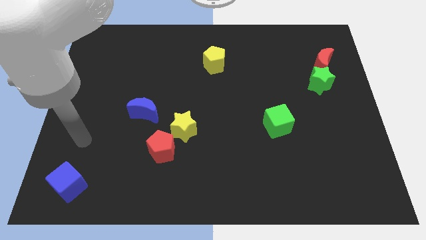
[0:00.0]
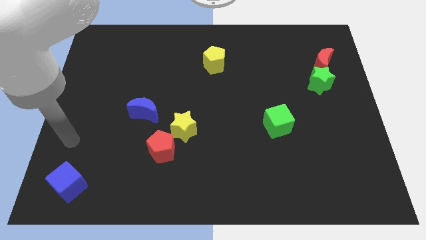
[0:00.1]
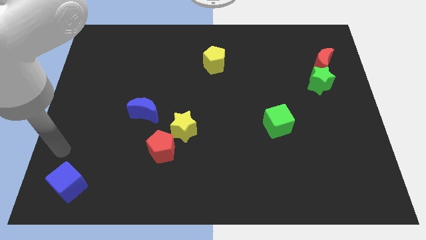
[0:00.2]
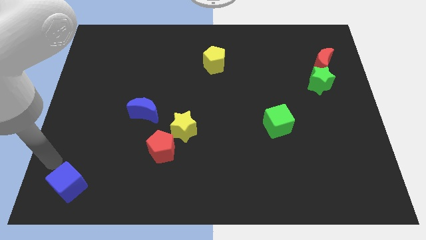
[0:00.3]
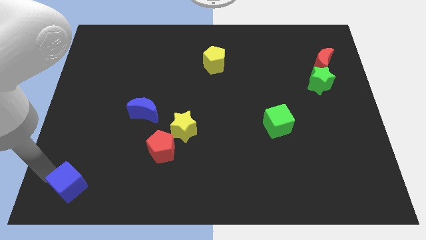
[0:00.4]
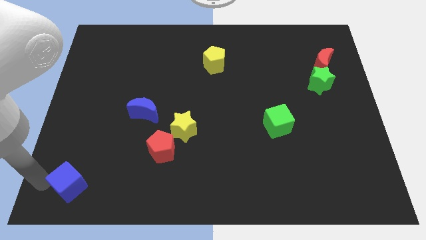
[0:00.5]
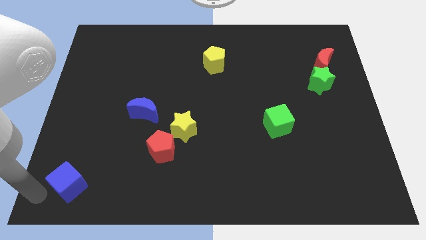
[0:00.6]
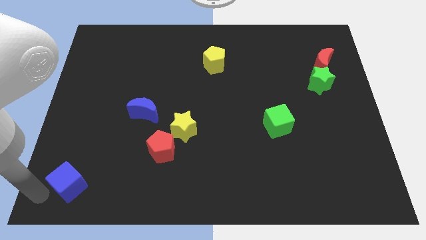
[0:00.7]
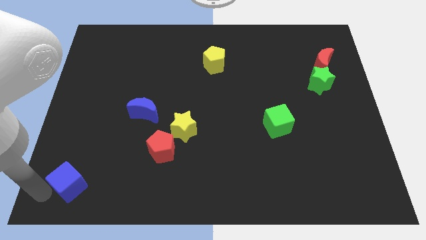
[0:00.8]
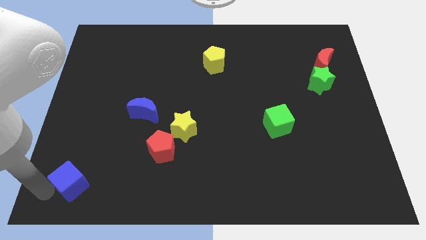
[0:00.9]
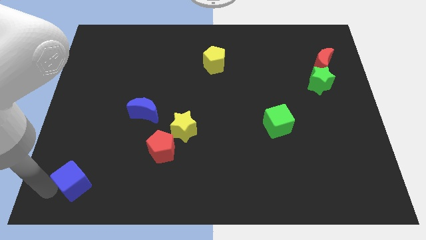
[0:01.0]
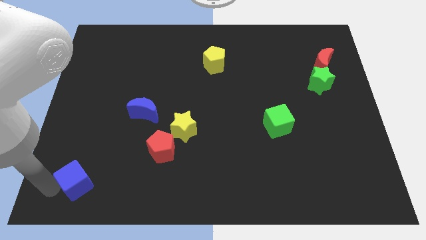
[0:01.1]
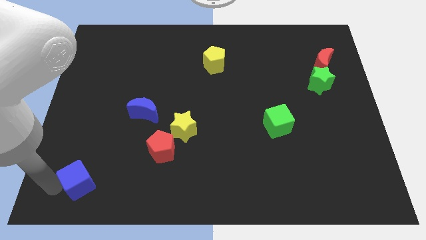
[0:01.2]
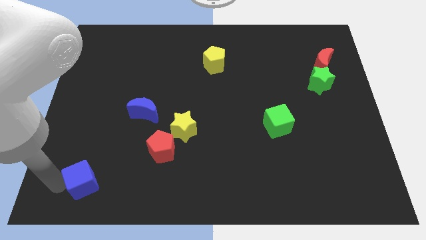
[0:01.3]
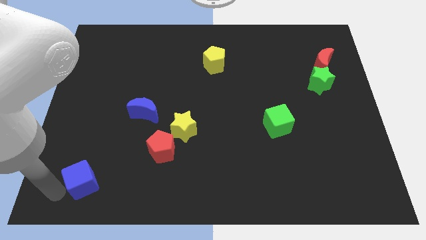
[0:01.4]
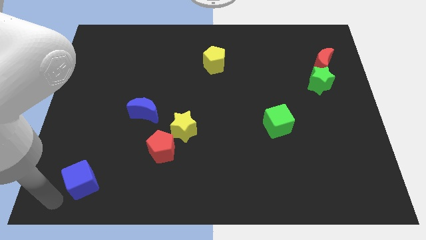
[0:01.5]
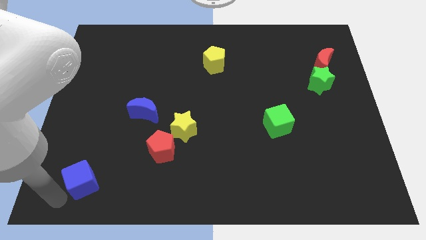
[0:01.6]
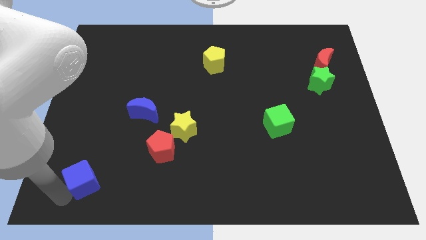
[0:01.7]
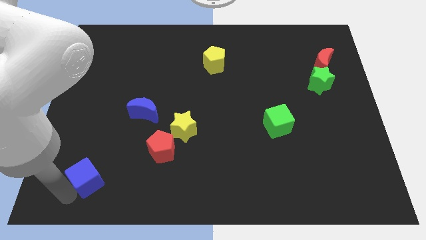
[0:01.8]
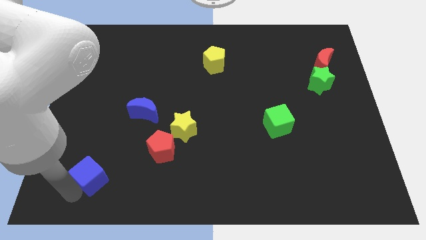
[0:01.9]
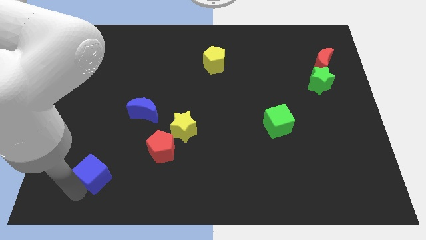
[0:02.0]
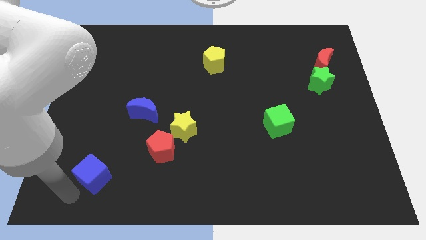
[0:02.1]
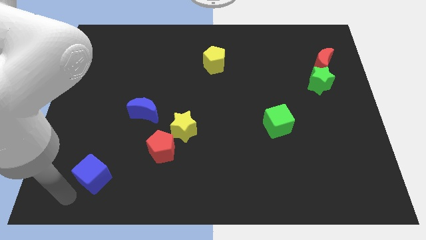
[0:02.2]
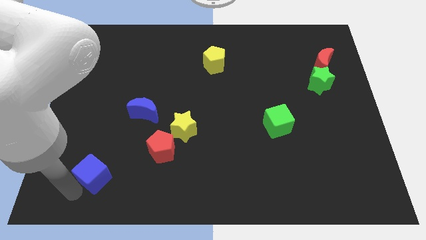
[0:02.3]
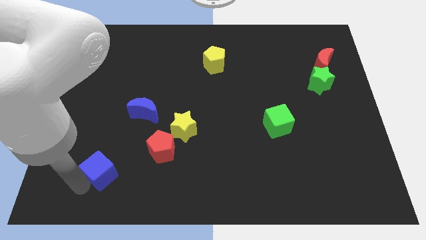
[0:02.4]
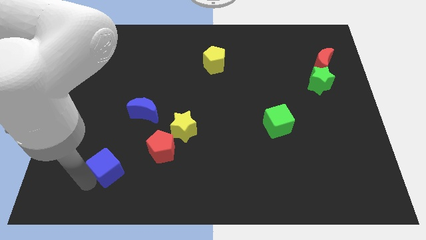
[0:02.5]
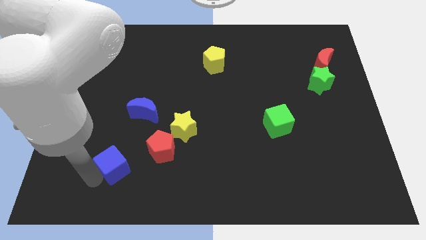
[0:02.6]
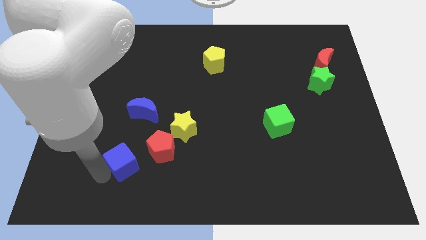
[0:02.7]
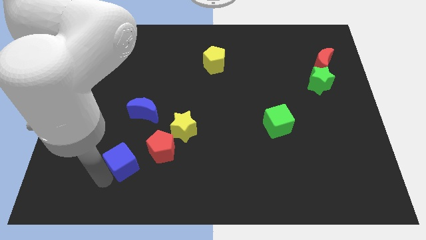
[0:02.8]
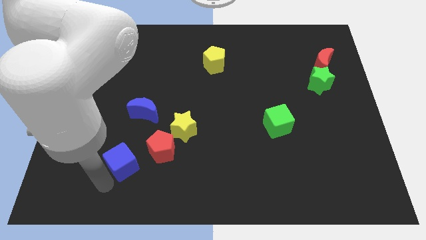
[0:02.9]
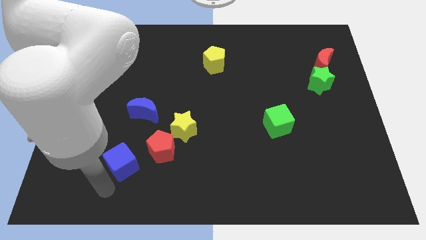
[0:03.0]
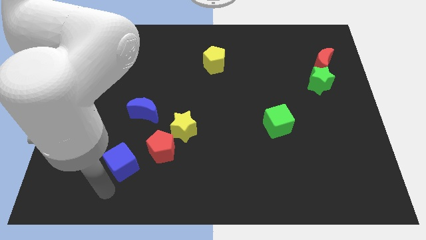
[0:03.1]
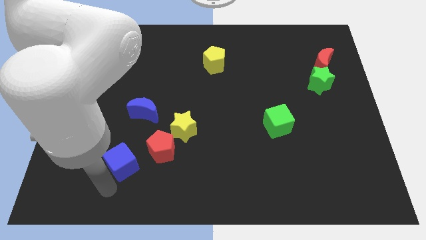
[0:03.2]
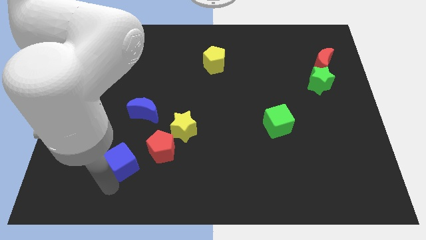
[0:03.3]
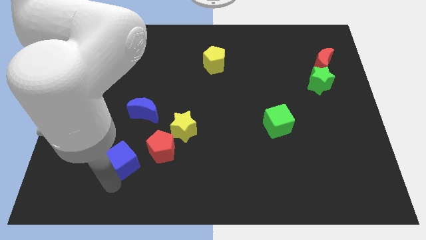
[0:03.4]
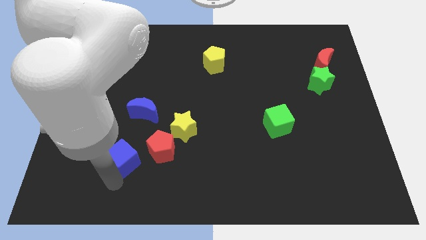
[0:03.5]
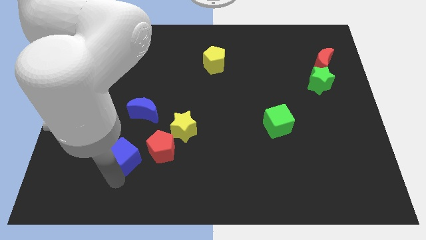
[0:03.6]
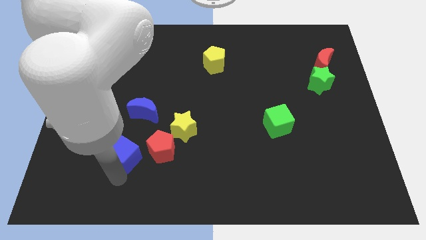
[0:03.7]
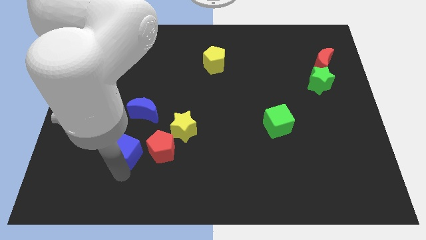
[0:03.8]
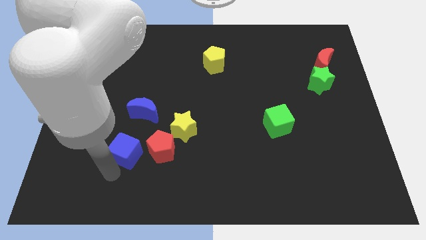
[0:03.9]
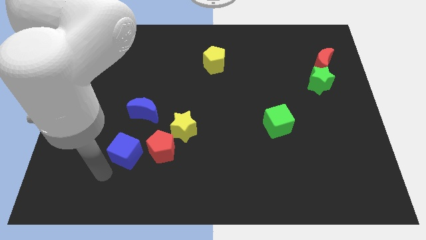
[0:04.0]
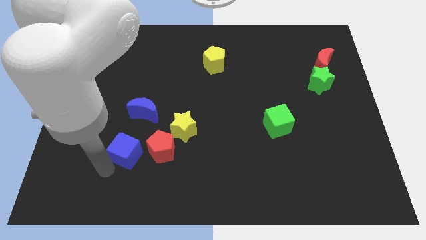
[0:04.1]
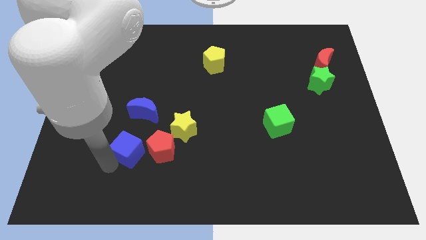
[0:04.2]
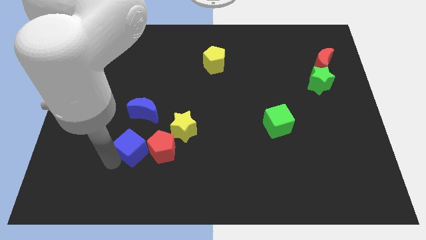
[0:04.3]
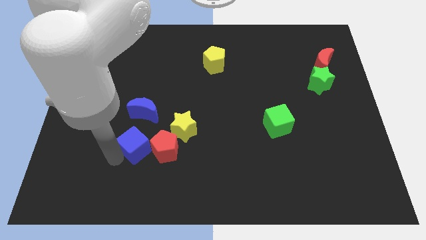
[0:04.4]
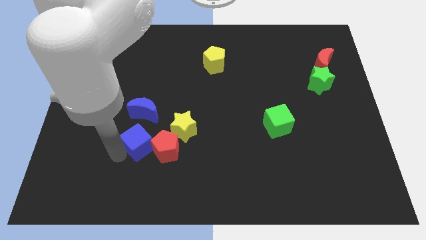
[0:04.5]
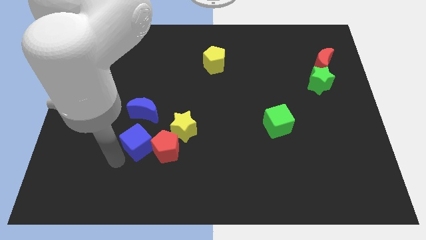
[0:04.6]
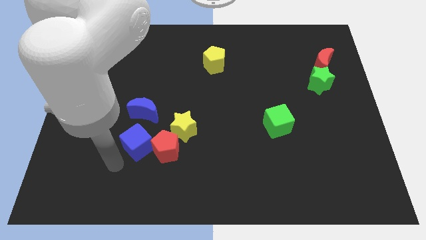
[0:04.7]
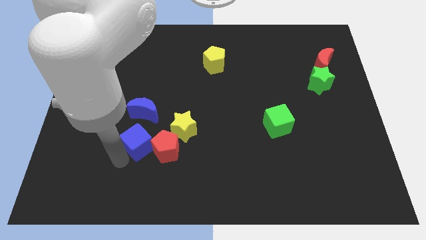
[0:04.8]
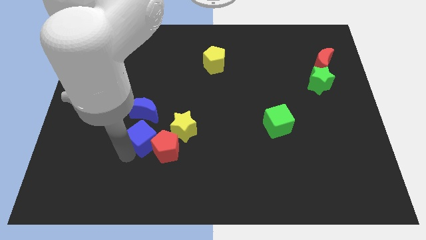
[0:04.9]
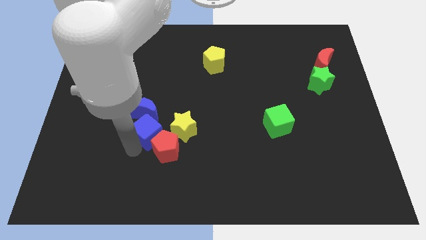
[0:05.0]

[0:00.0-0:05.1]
slide the blue cube to the top side of the red pentagon

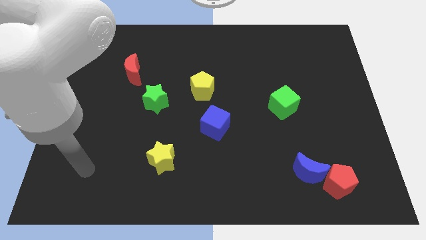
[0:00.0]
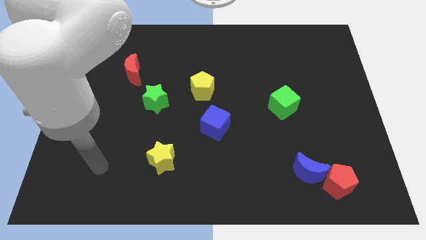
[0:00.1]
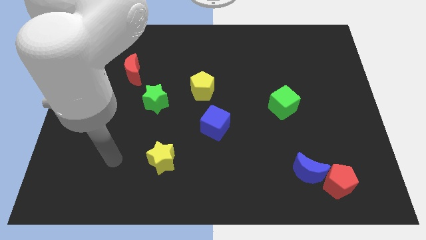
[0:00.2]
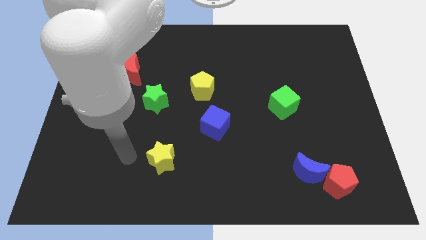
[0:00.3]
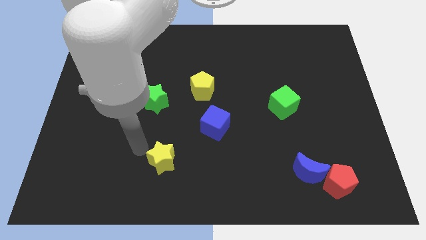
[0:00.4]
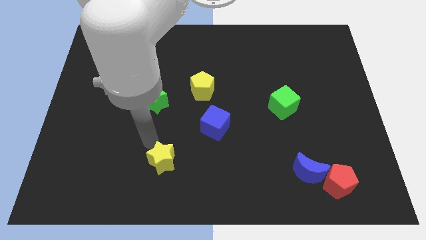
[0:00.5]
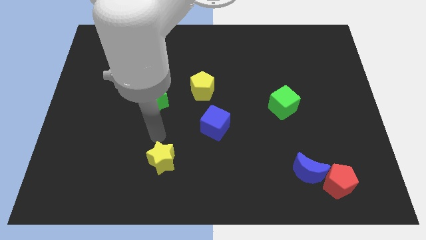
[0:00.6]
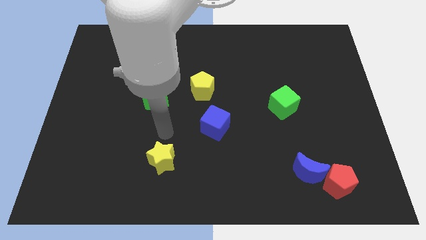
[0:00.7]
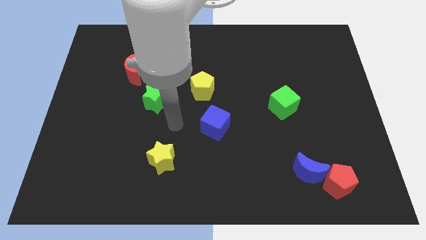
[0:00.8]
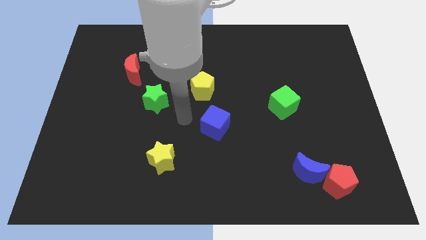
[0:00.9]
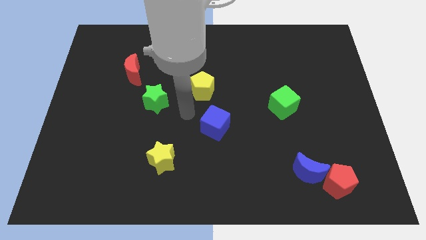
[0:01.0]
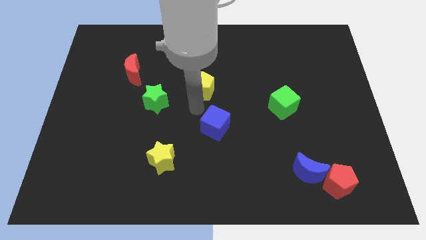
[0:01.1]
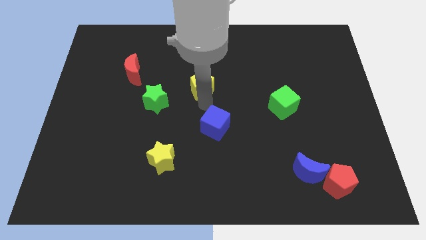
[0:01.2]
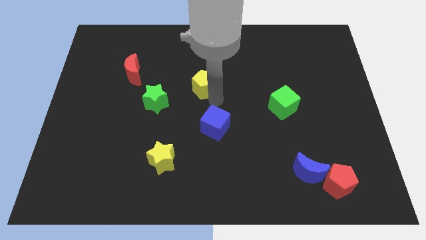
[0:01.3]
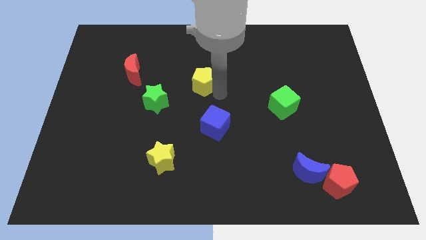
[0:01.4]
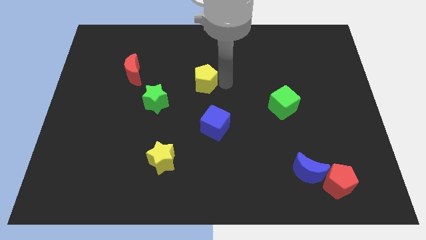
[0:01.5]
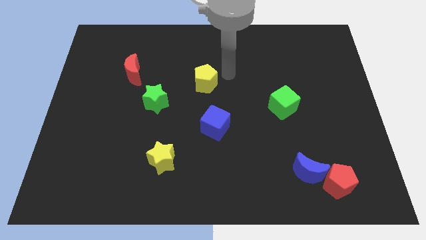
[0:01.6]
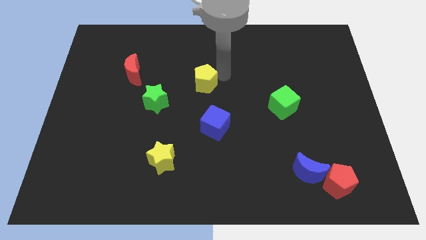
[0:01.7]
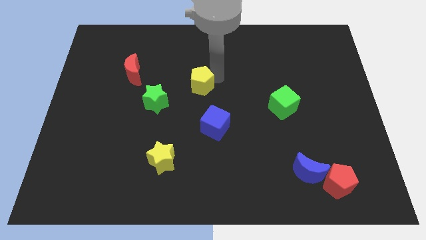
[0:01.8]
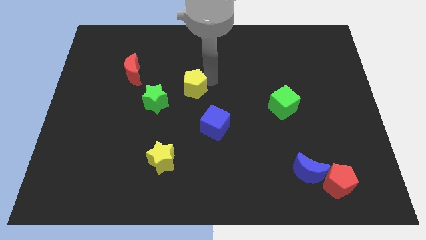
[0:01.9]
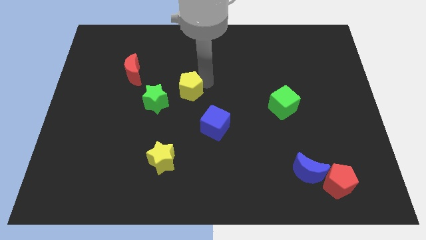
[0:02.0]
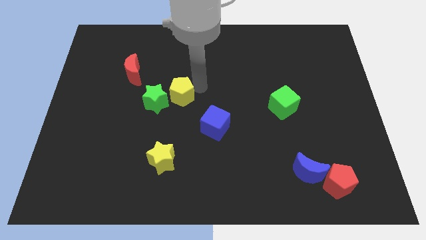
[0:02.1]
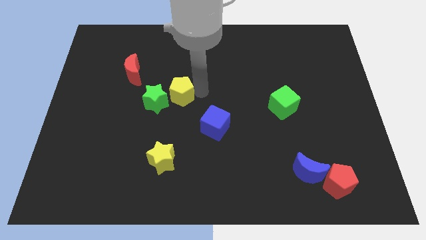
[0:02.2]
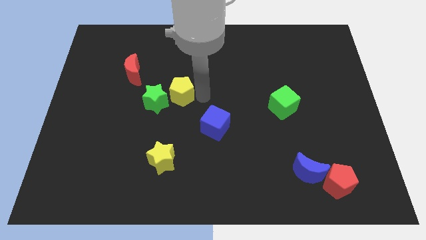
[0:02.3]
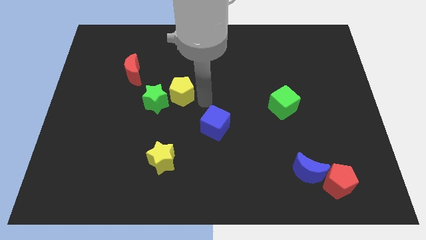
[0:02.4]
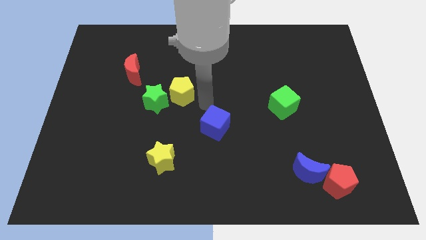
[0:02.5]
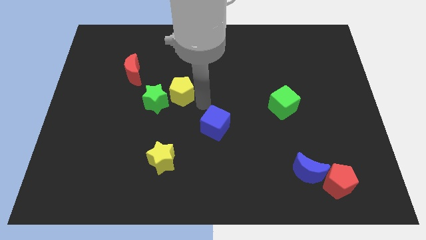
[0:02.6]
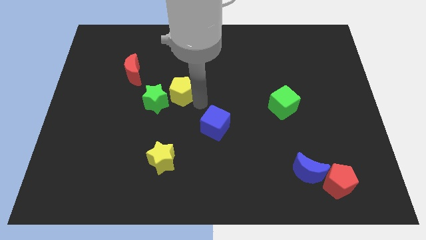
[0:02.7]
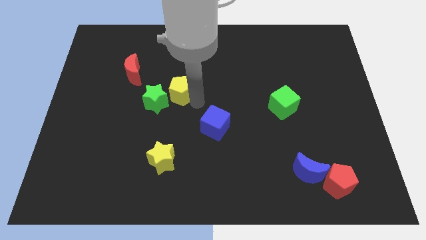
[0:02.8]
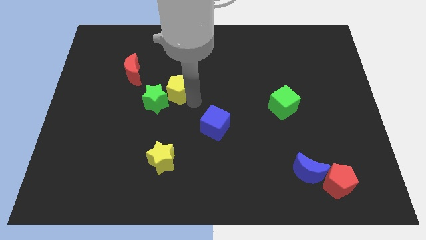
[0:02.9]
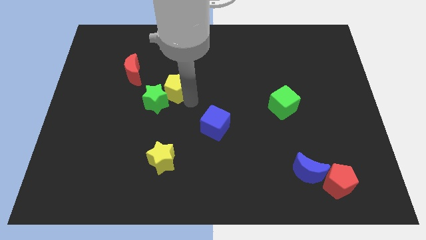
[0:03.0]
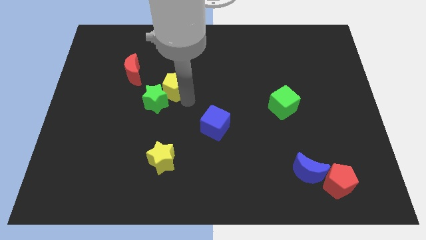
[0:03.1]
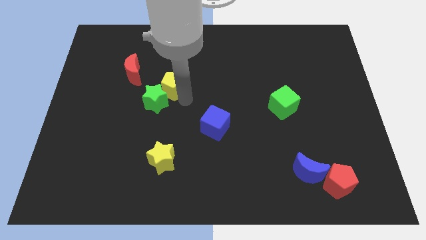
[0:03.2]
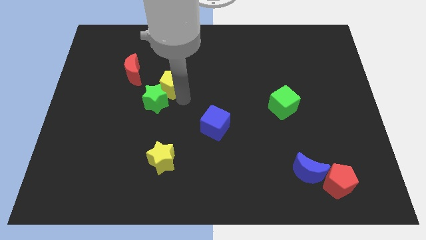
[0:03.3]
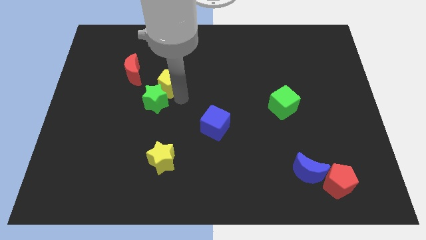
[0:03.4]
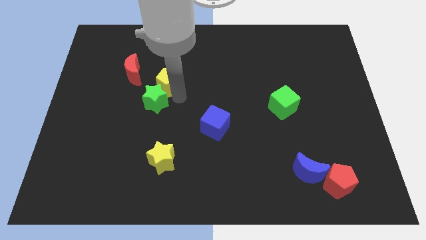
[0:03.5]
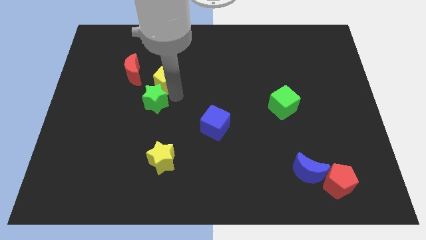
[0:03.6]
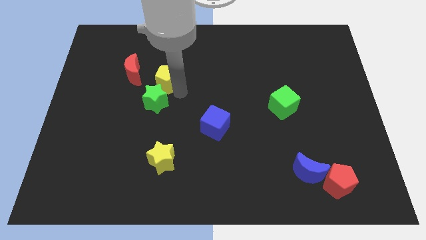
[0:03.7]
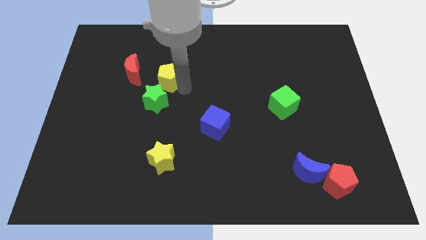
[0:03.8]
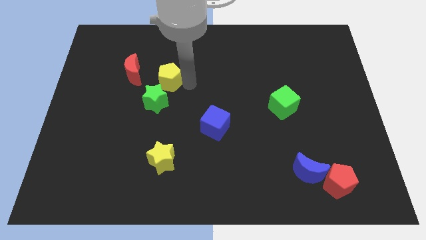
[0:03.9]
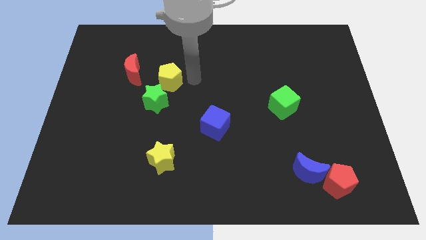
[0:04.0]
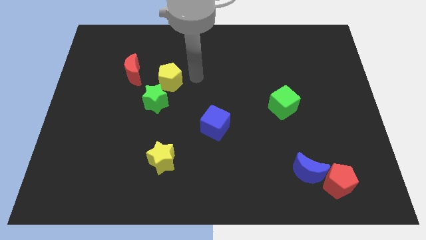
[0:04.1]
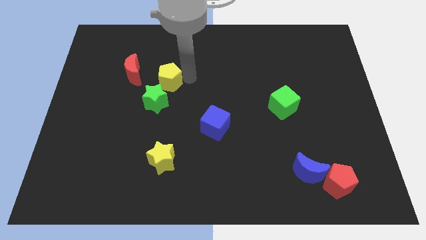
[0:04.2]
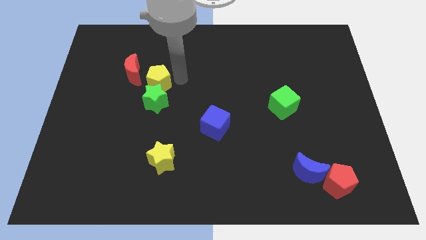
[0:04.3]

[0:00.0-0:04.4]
move the yellow pentagon to the top left of the green star
